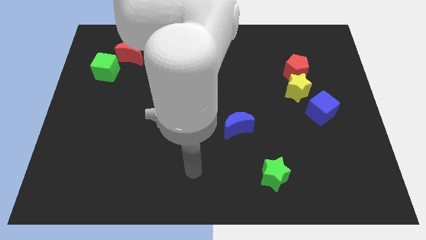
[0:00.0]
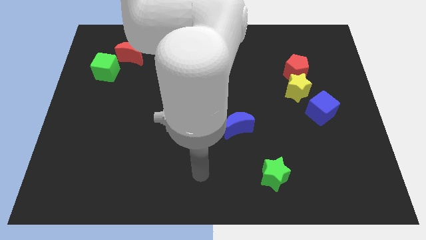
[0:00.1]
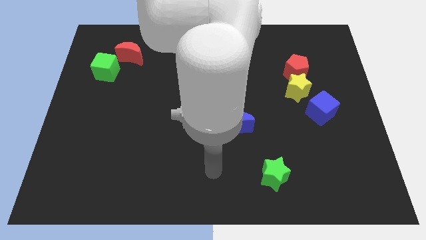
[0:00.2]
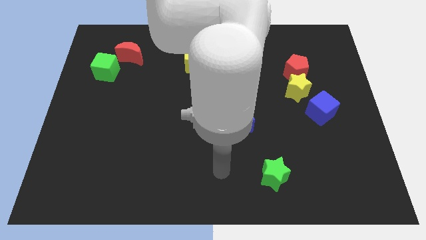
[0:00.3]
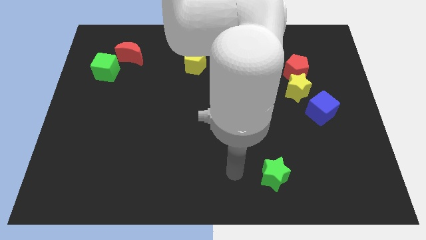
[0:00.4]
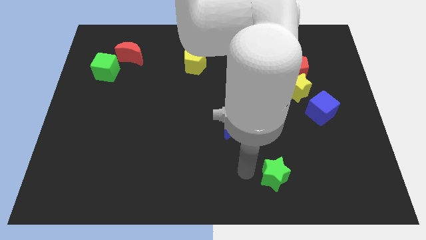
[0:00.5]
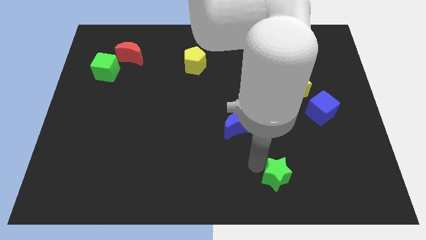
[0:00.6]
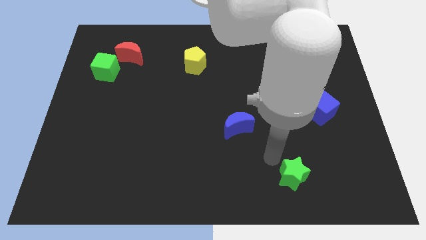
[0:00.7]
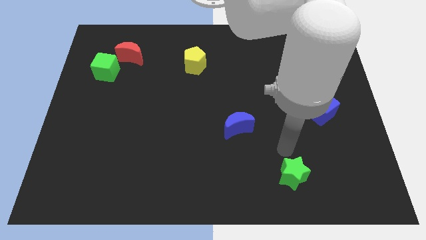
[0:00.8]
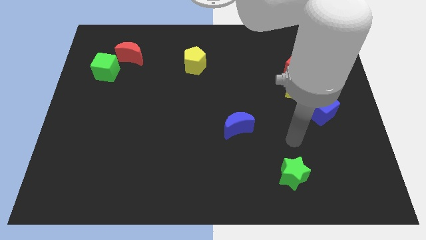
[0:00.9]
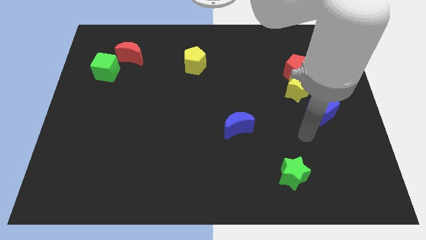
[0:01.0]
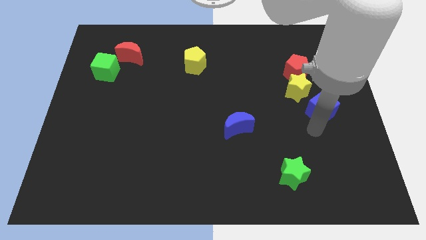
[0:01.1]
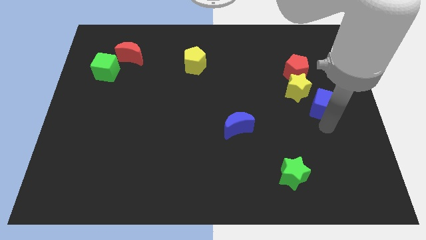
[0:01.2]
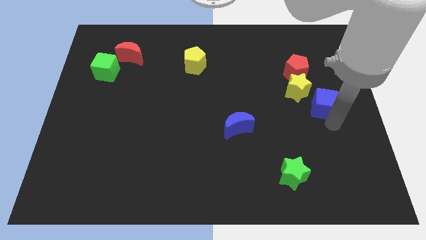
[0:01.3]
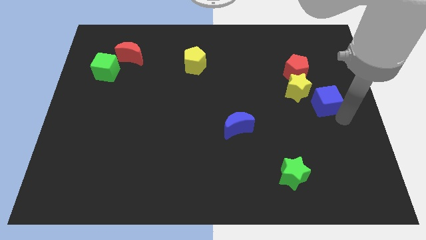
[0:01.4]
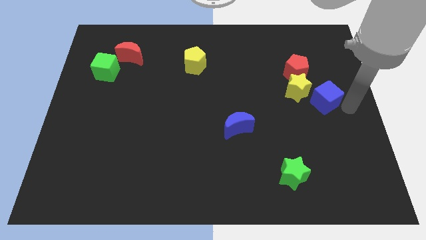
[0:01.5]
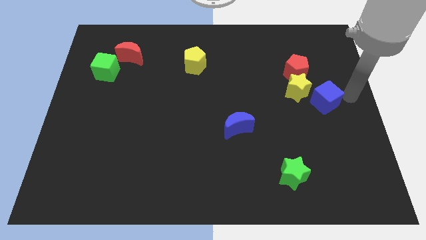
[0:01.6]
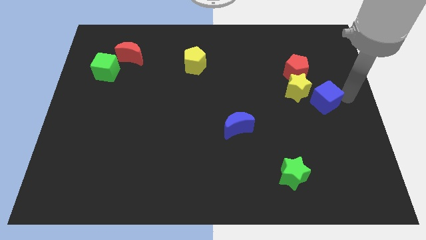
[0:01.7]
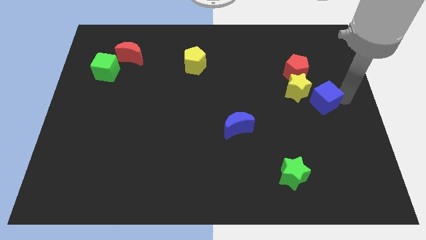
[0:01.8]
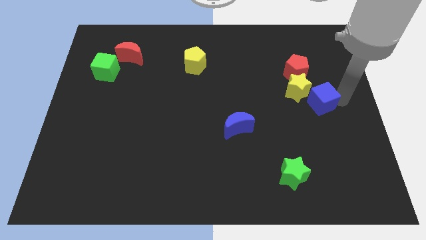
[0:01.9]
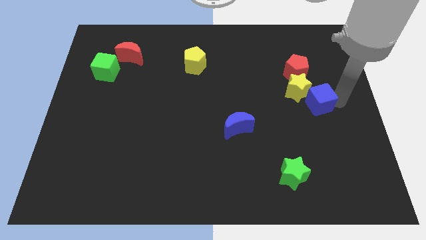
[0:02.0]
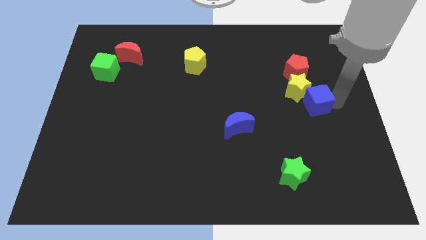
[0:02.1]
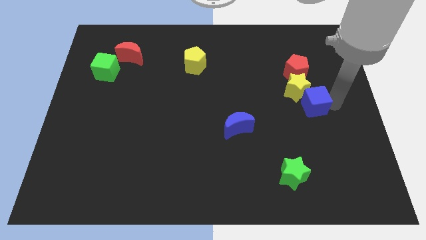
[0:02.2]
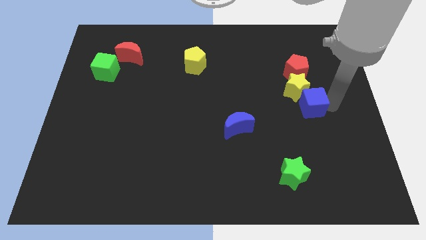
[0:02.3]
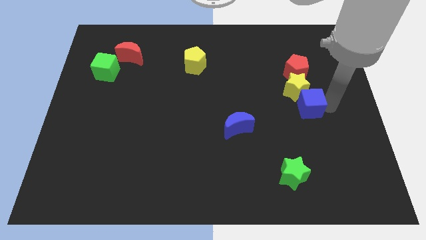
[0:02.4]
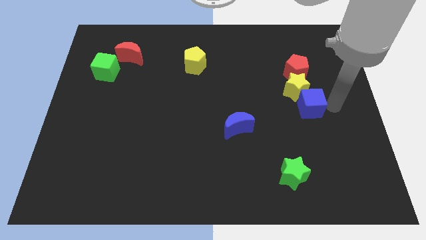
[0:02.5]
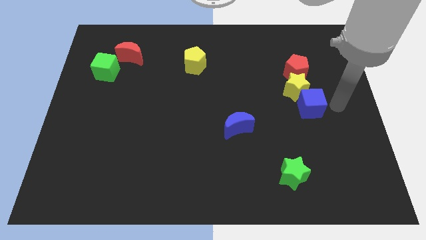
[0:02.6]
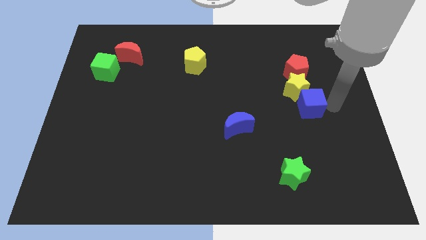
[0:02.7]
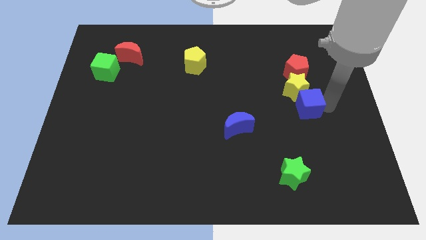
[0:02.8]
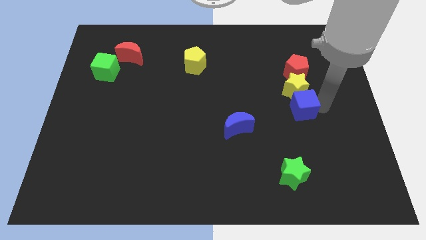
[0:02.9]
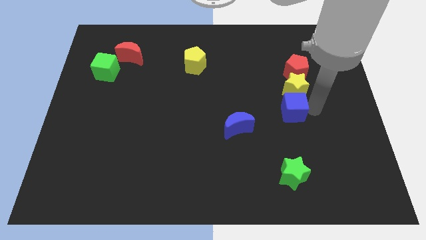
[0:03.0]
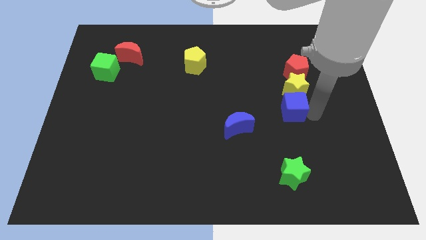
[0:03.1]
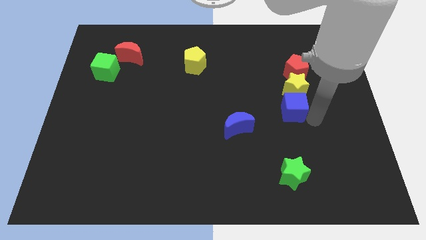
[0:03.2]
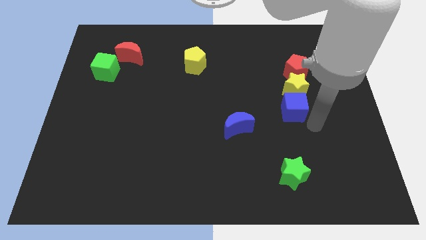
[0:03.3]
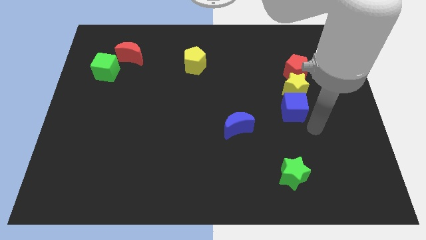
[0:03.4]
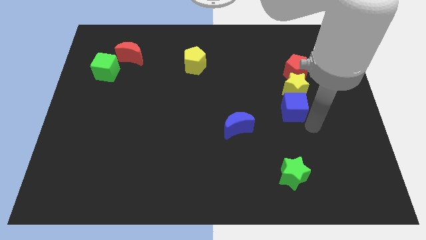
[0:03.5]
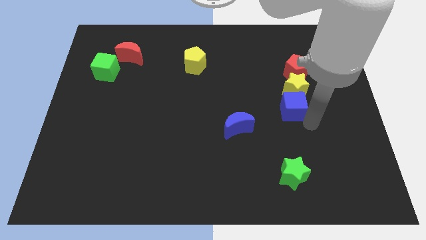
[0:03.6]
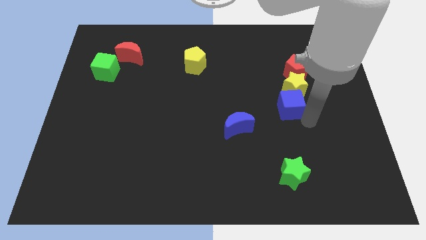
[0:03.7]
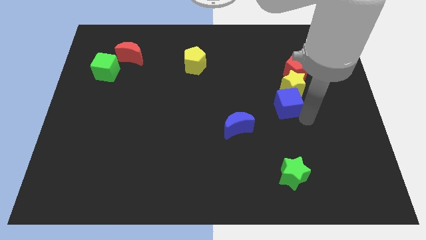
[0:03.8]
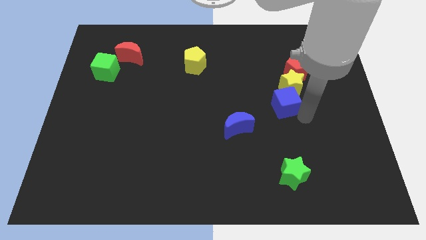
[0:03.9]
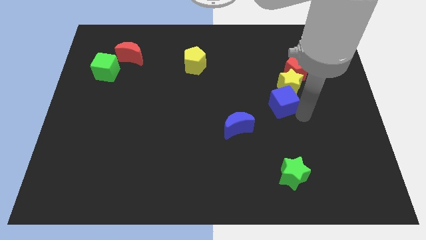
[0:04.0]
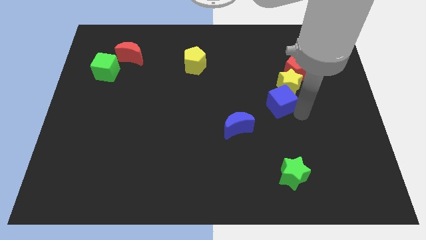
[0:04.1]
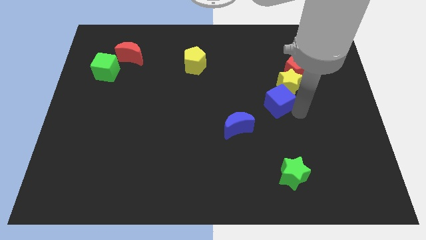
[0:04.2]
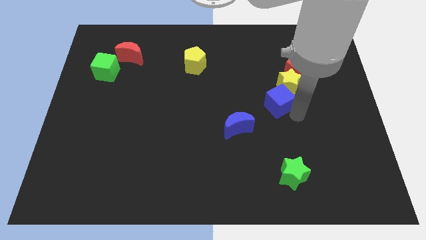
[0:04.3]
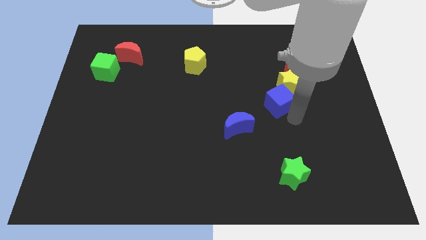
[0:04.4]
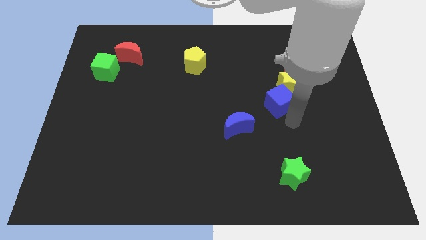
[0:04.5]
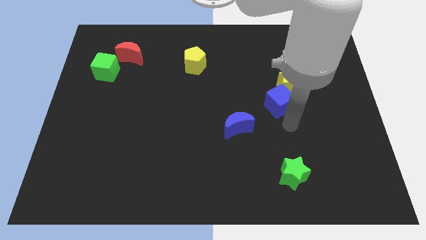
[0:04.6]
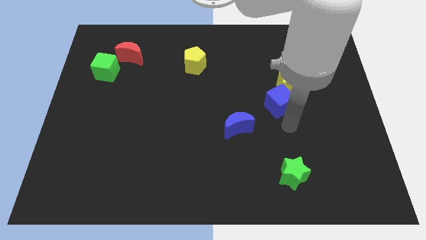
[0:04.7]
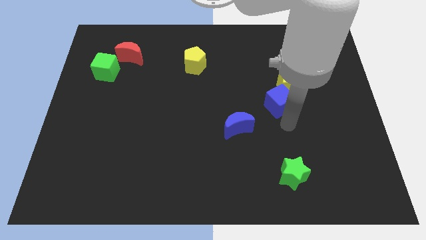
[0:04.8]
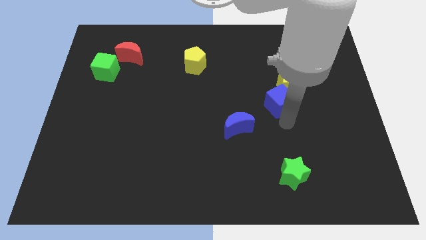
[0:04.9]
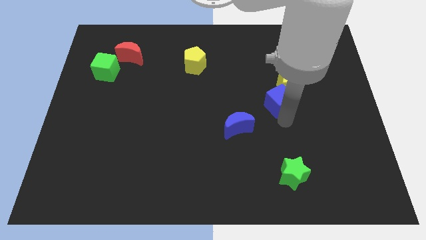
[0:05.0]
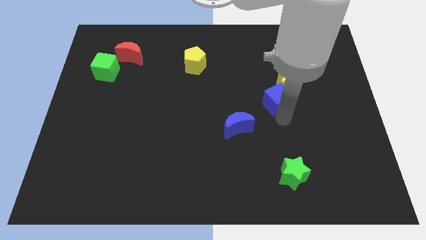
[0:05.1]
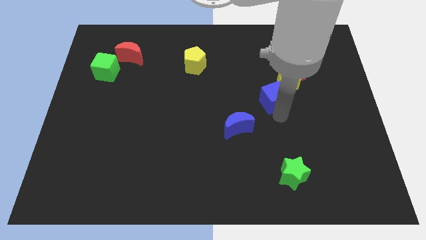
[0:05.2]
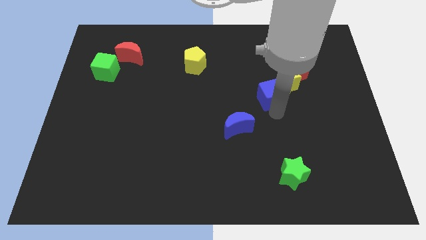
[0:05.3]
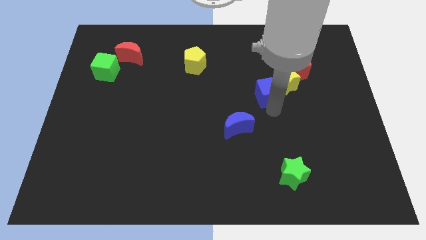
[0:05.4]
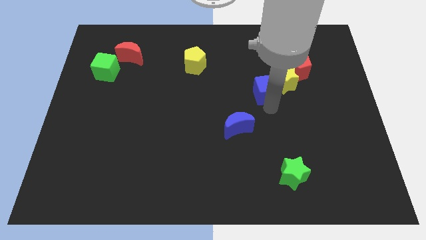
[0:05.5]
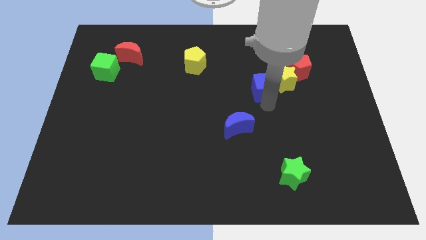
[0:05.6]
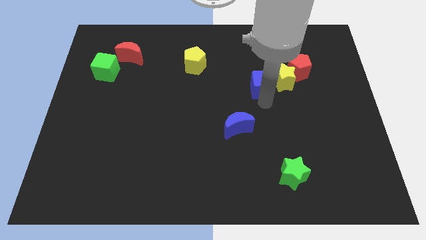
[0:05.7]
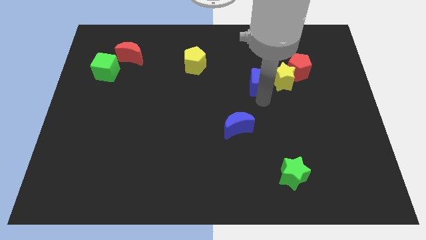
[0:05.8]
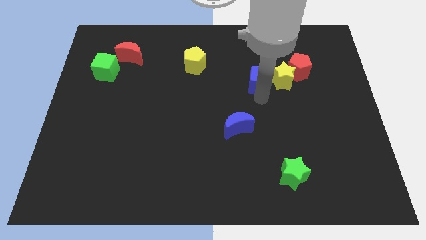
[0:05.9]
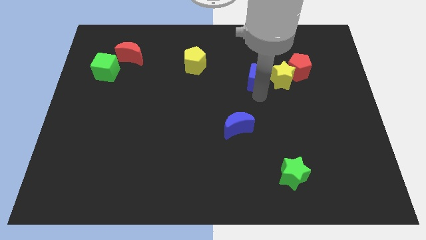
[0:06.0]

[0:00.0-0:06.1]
move the blue cube to the top left of the yellow star

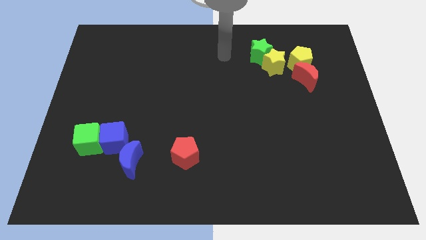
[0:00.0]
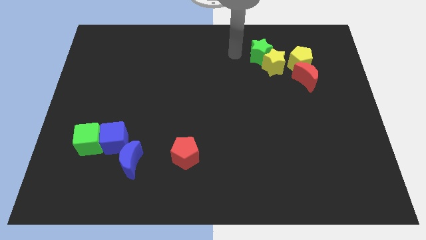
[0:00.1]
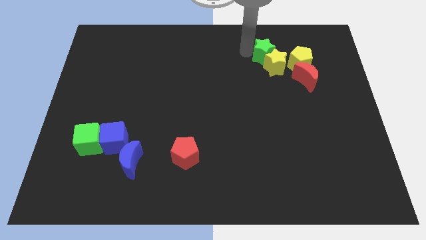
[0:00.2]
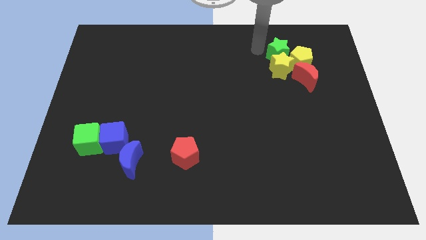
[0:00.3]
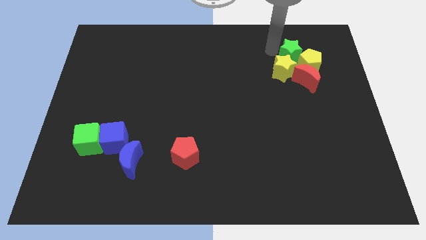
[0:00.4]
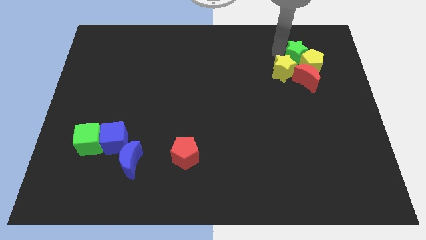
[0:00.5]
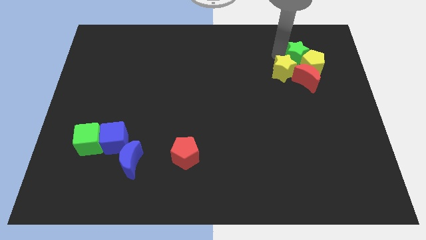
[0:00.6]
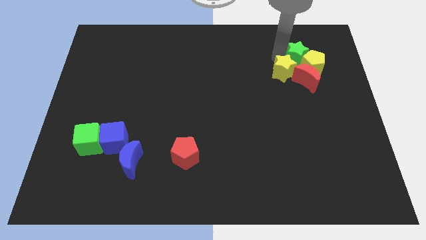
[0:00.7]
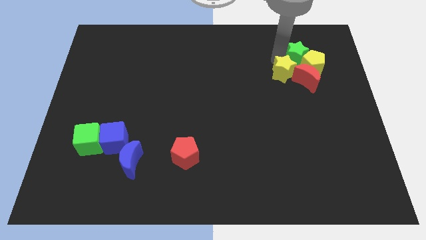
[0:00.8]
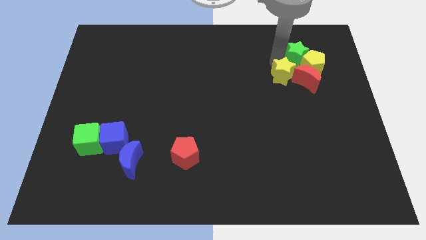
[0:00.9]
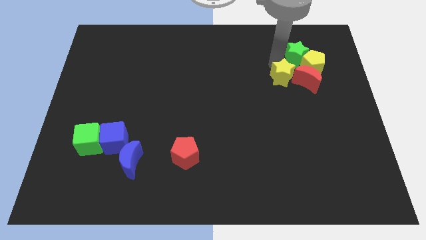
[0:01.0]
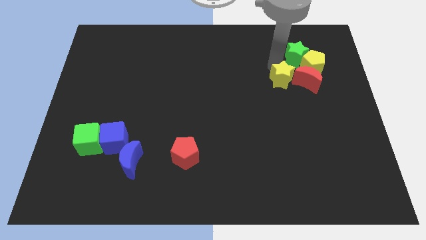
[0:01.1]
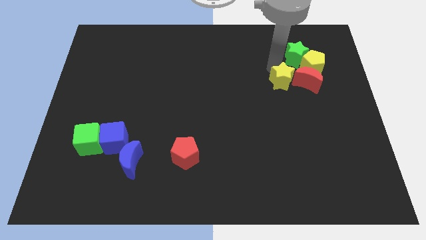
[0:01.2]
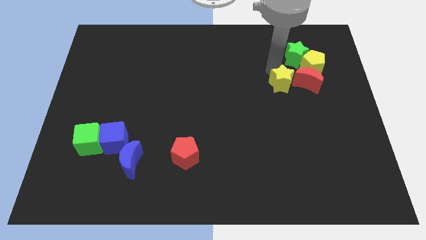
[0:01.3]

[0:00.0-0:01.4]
move the yellow star diagonally down and to the left of the red moon
